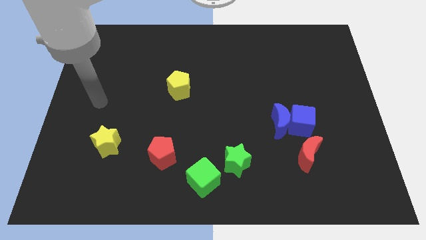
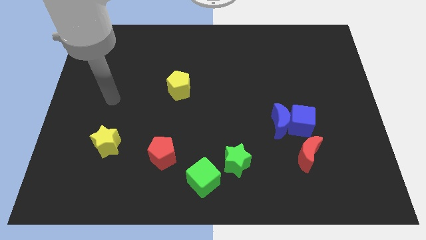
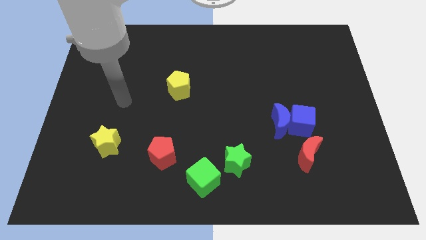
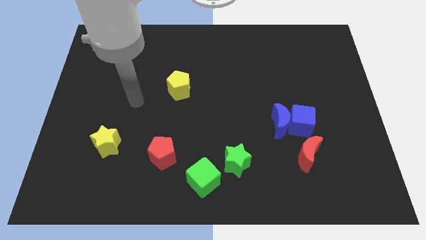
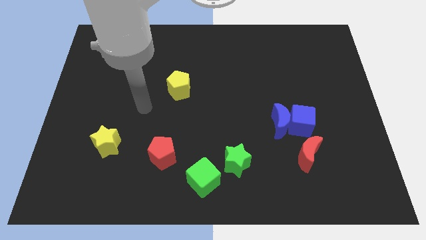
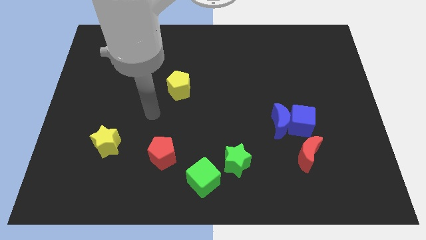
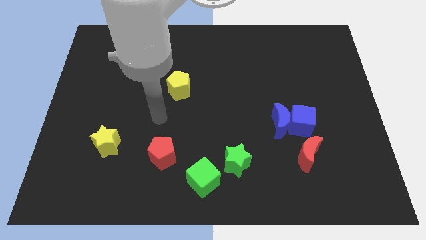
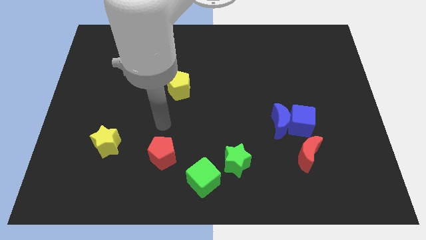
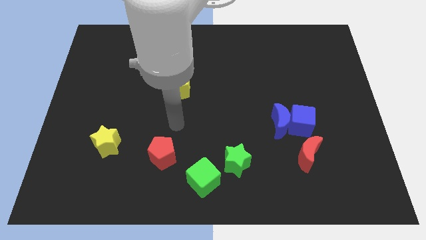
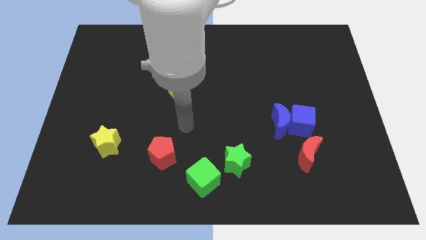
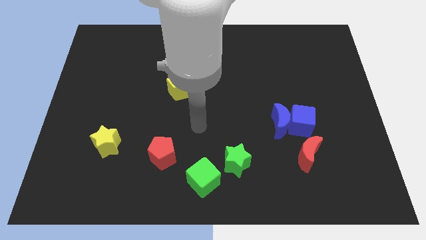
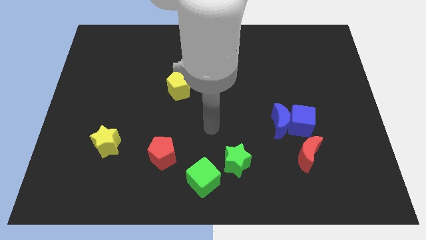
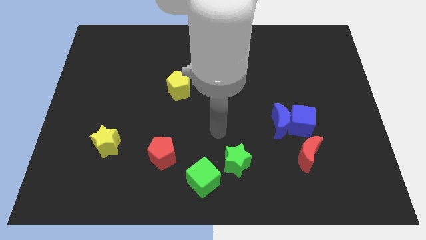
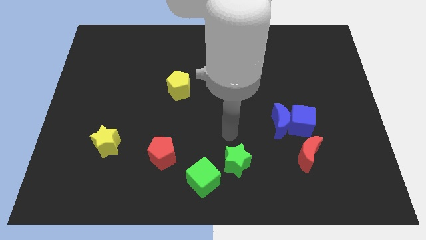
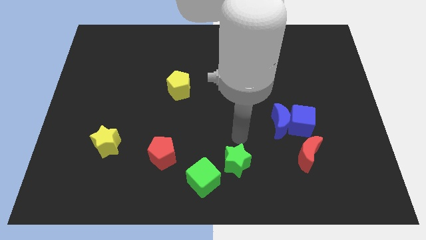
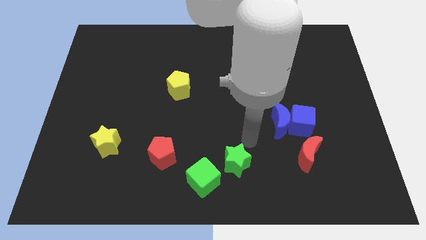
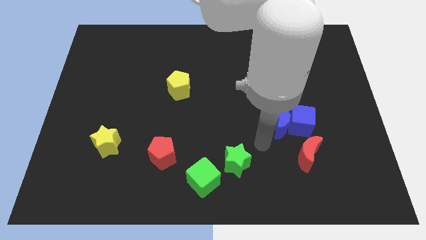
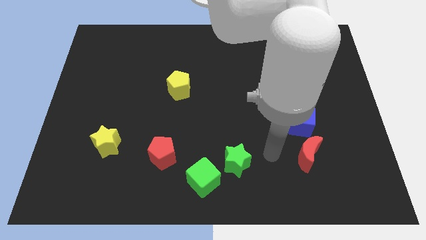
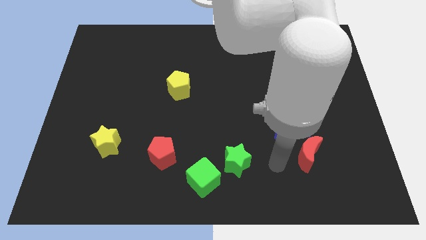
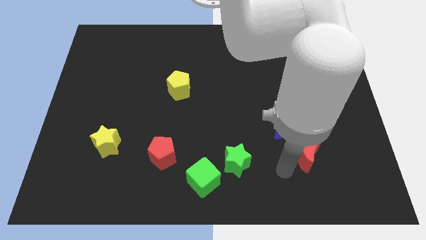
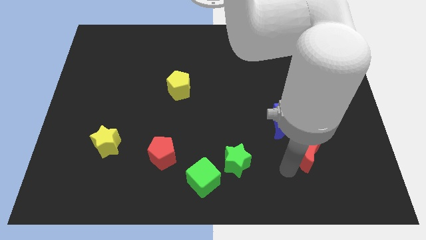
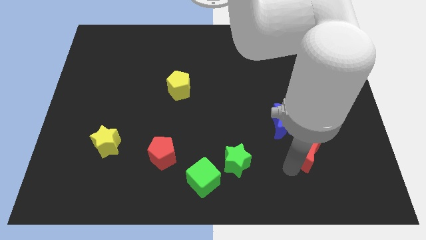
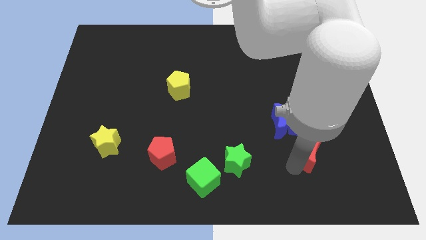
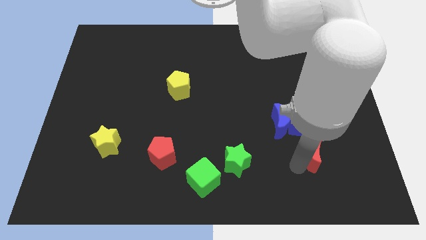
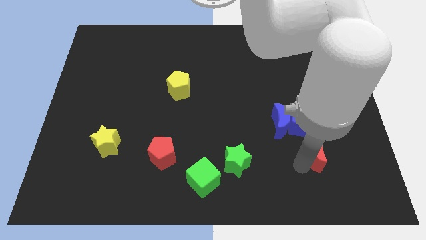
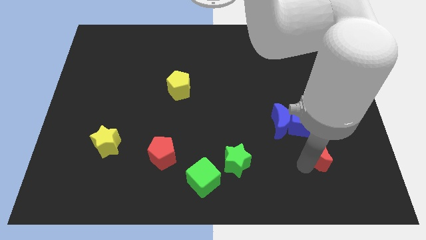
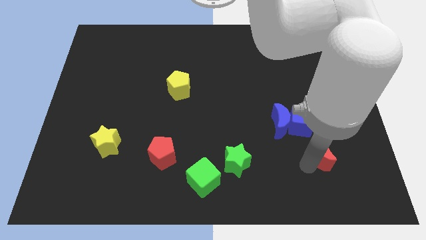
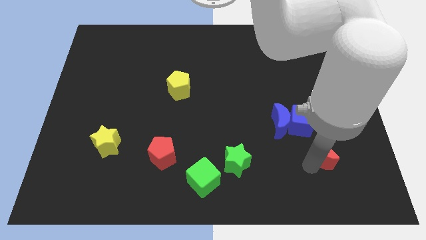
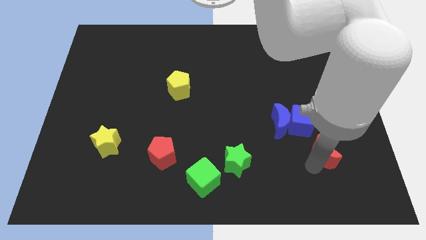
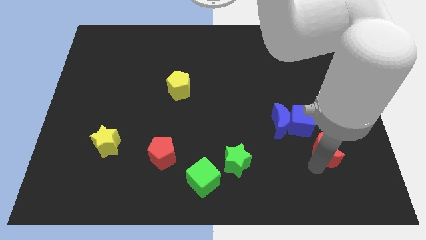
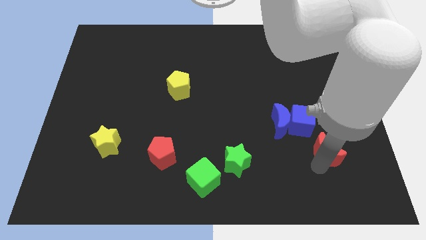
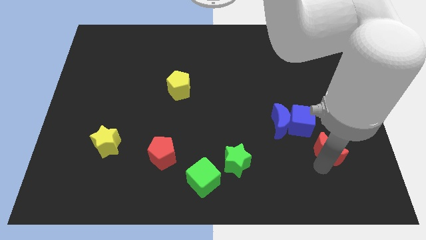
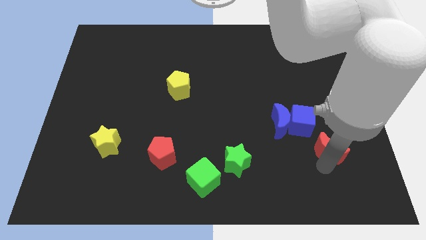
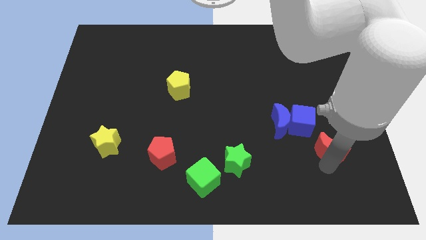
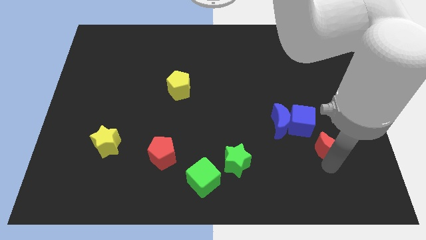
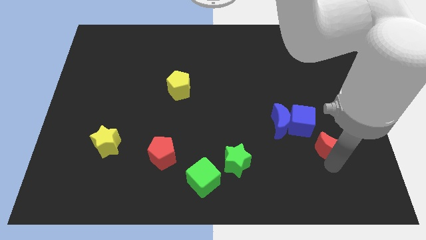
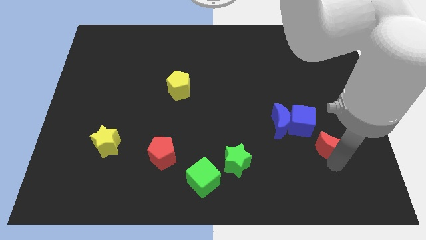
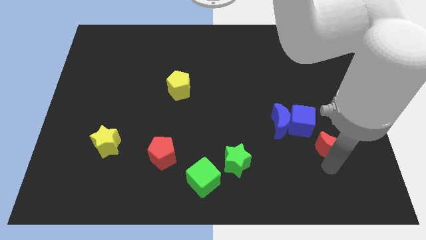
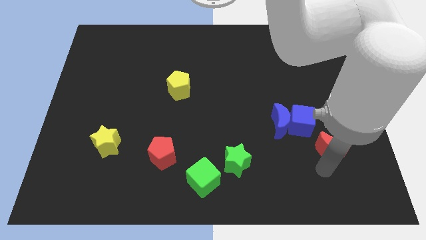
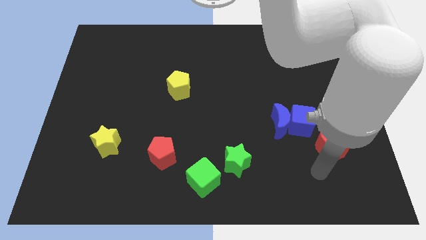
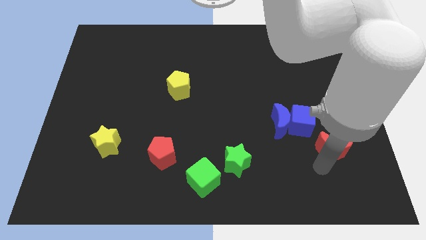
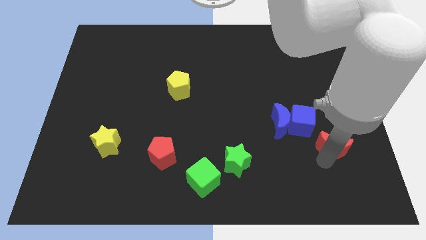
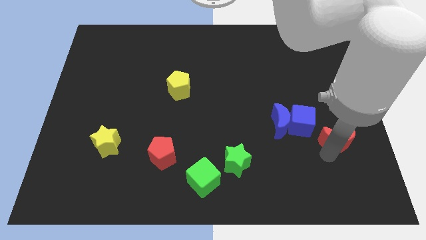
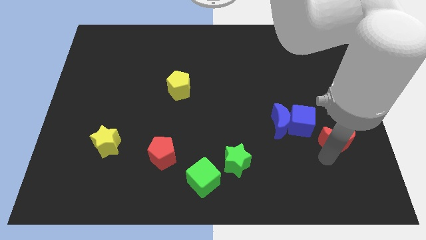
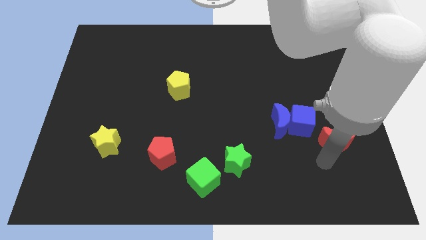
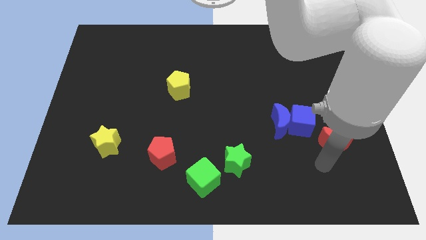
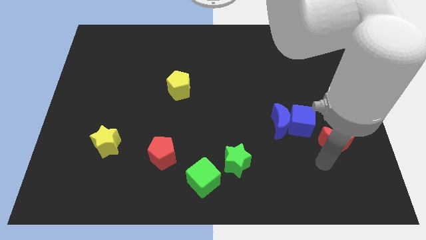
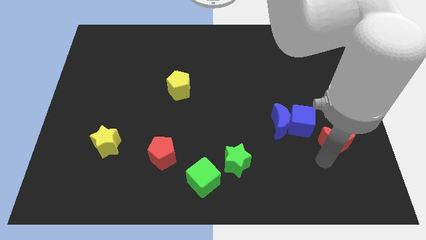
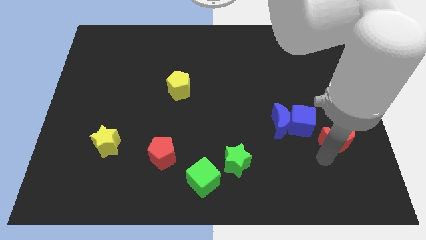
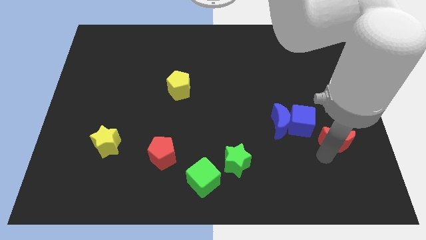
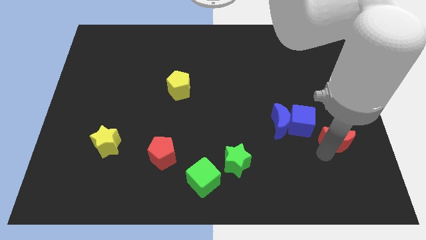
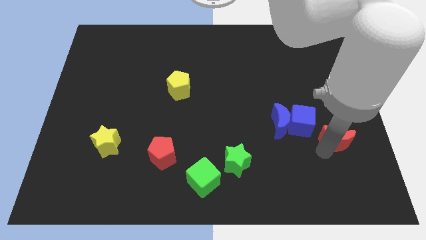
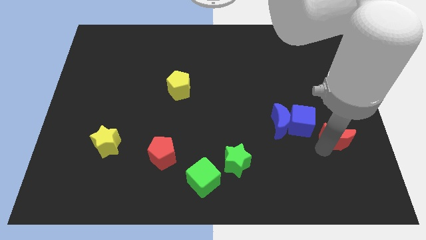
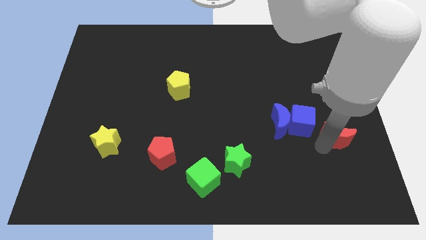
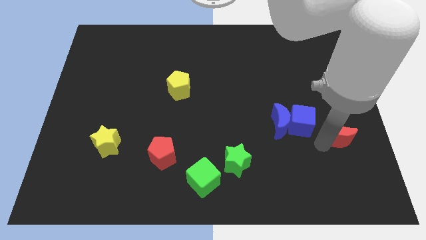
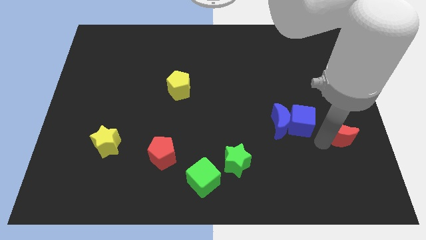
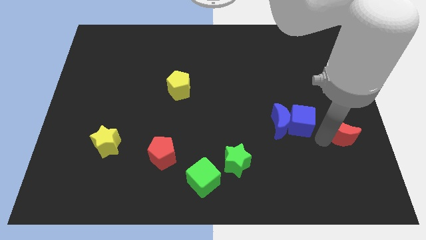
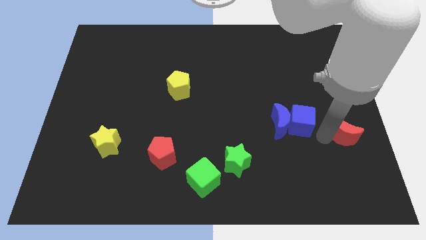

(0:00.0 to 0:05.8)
push the red moon to the center right

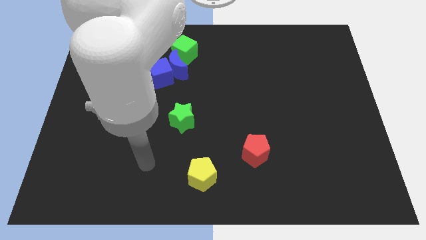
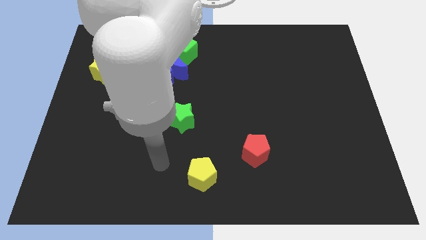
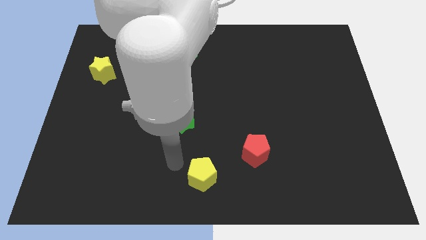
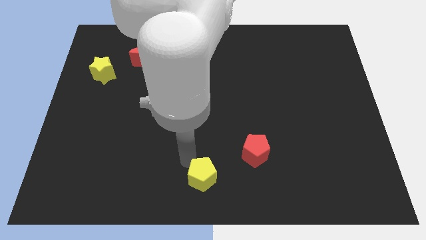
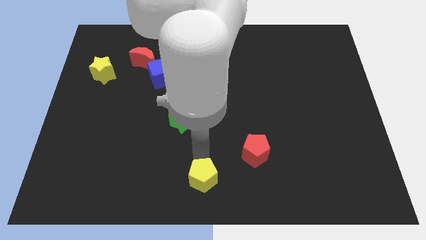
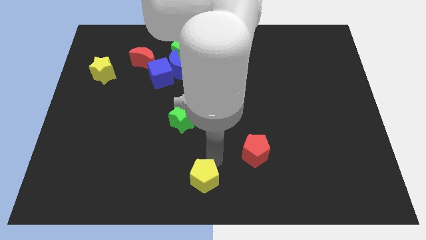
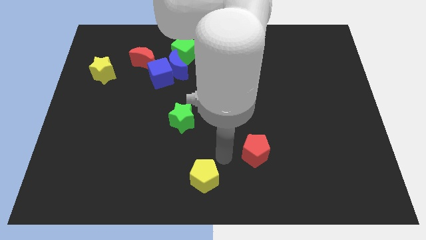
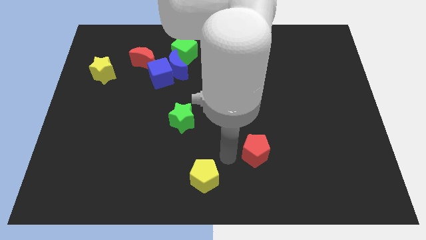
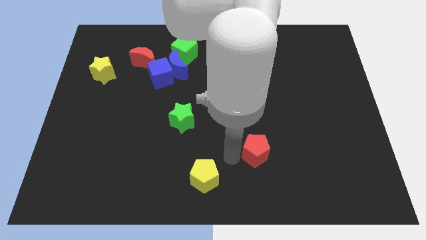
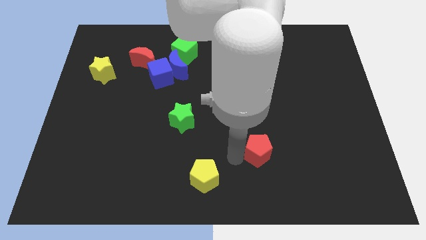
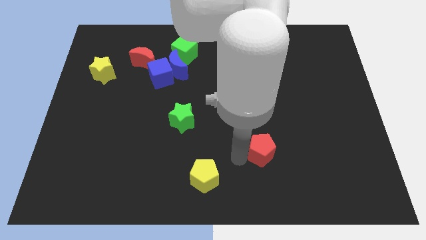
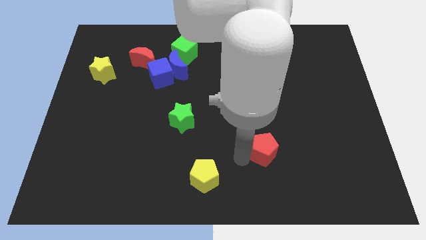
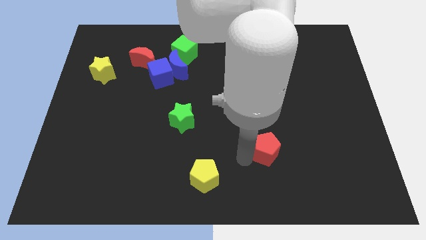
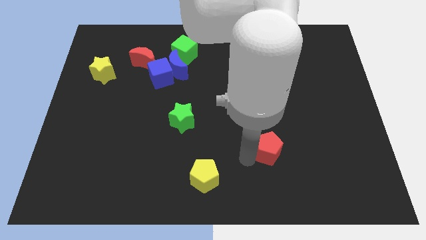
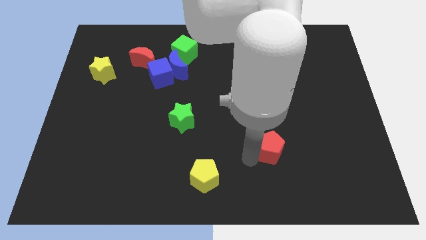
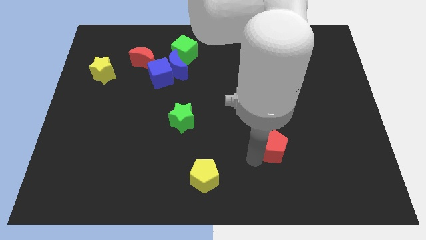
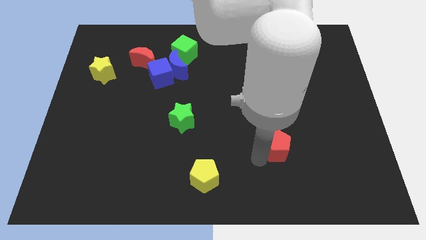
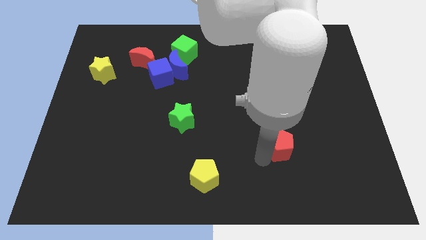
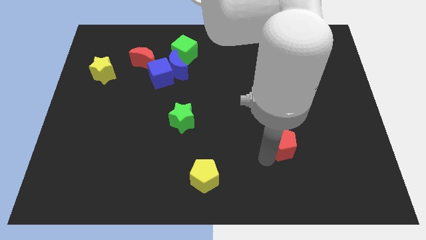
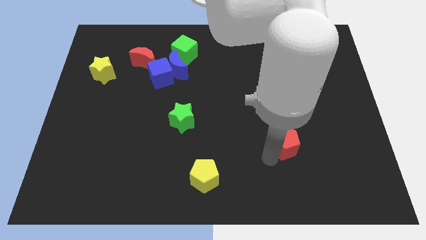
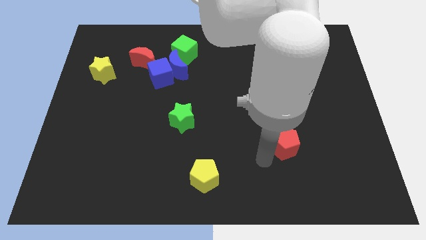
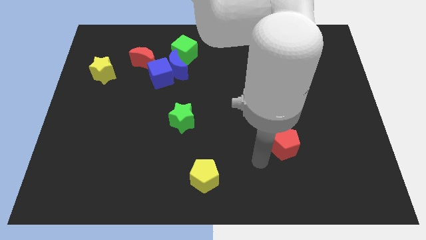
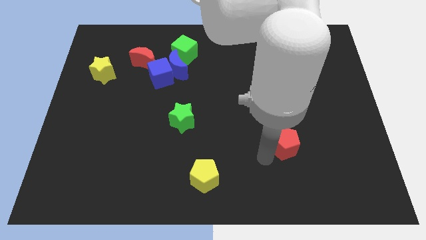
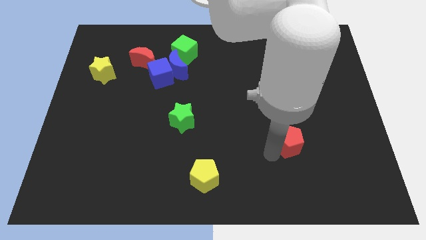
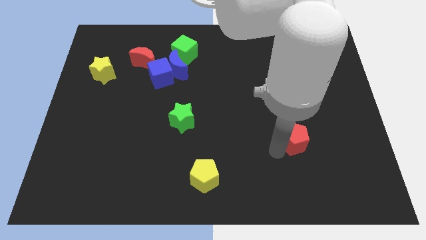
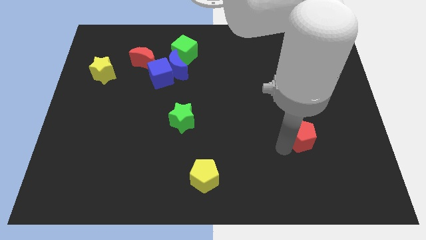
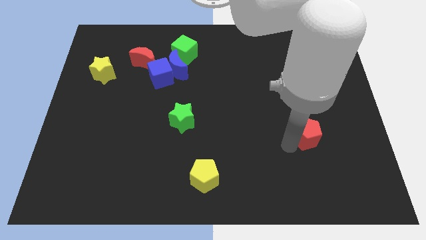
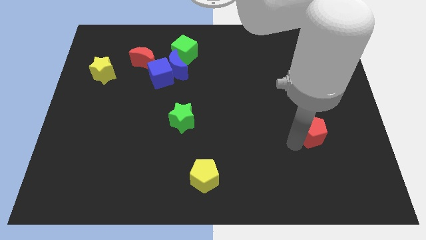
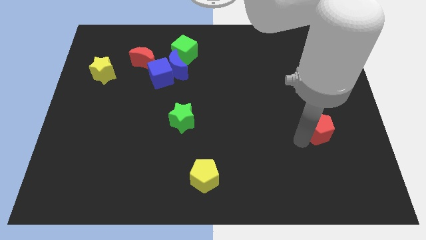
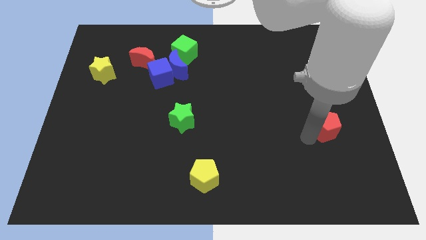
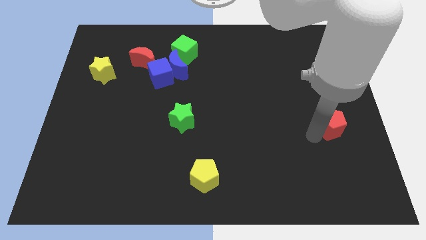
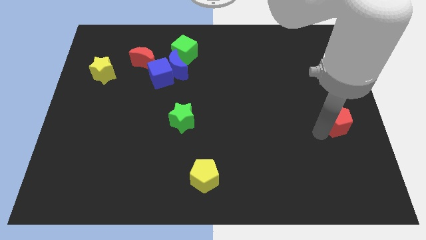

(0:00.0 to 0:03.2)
push the red pentagon to the right side of the board
